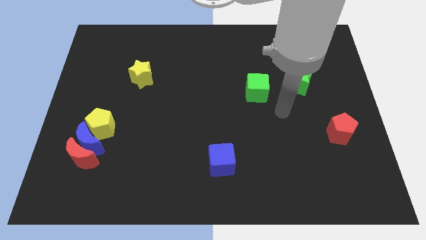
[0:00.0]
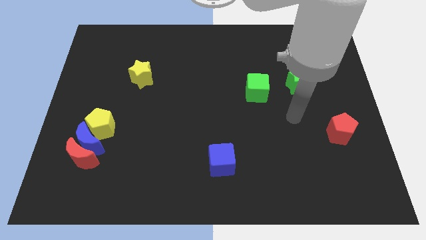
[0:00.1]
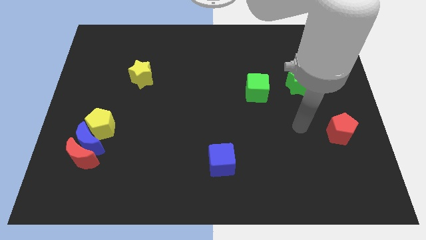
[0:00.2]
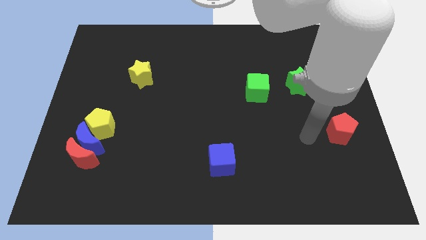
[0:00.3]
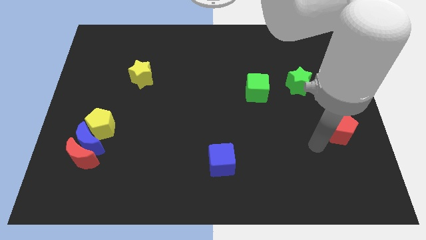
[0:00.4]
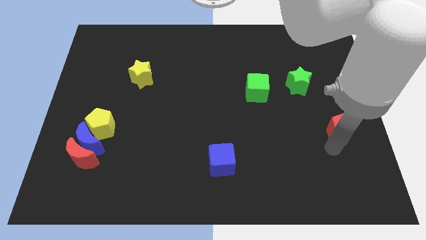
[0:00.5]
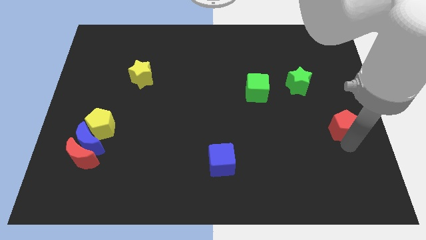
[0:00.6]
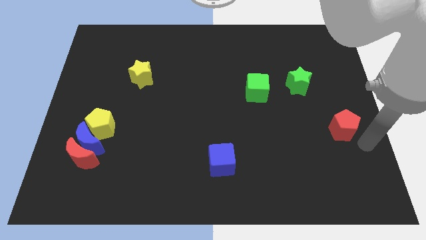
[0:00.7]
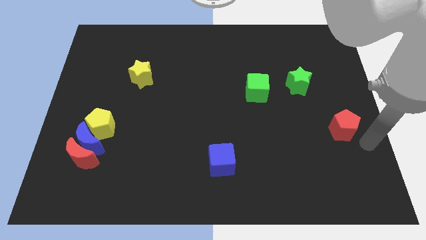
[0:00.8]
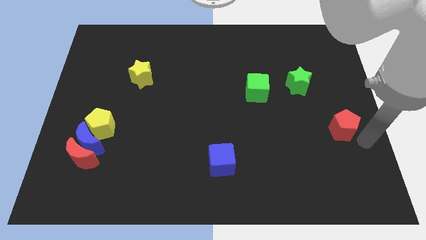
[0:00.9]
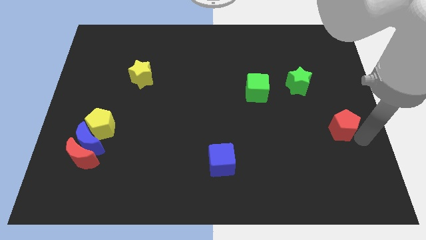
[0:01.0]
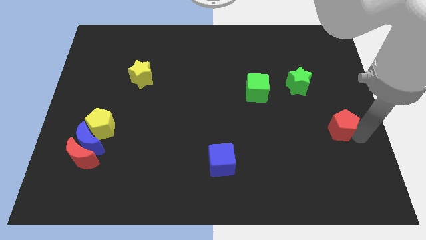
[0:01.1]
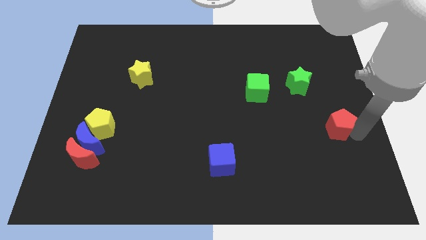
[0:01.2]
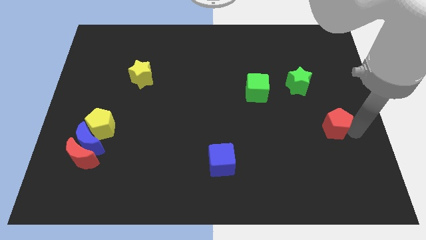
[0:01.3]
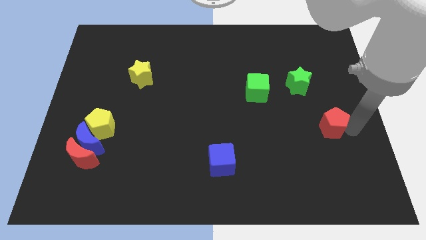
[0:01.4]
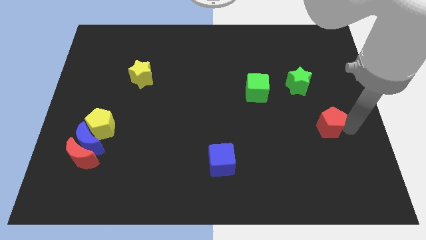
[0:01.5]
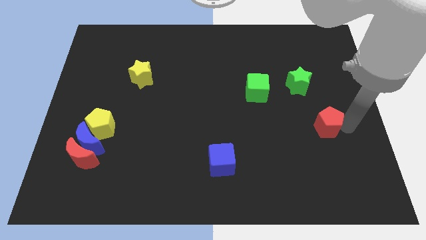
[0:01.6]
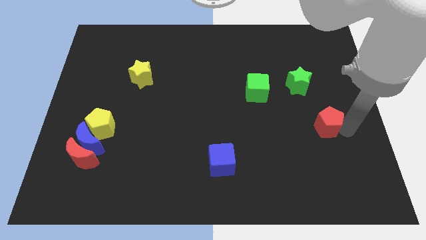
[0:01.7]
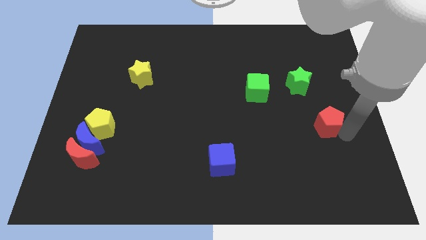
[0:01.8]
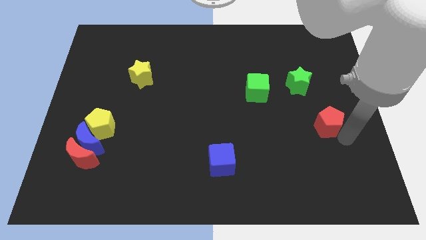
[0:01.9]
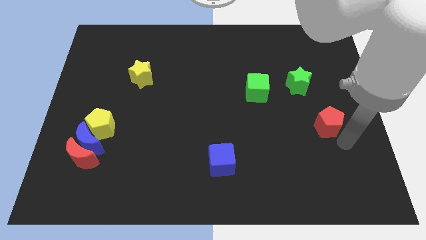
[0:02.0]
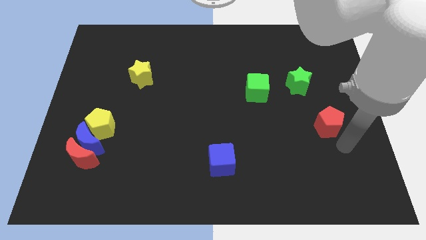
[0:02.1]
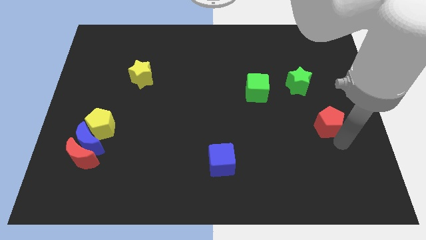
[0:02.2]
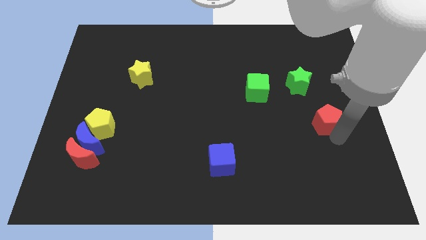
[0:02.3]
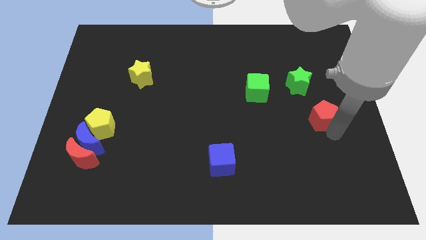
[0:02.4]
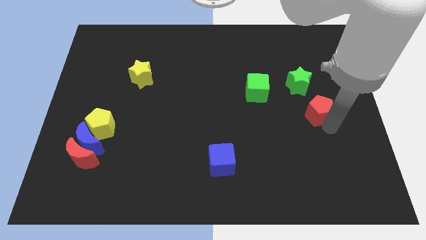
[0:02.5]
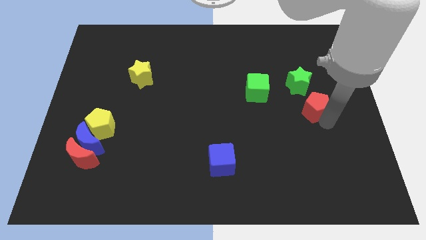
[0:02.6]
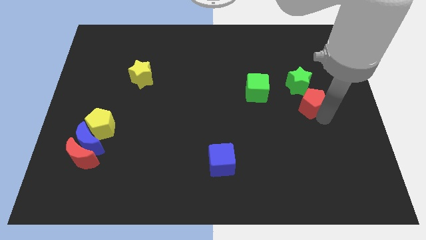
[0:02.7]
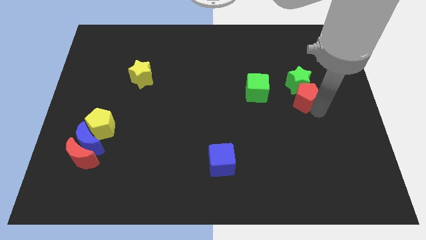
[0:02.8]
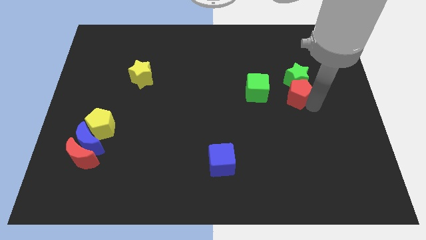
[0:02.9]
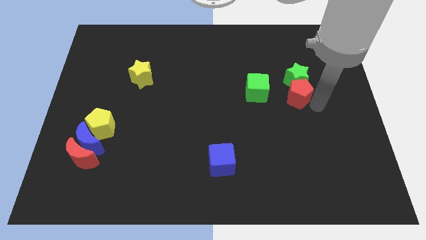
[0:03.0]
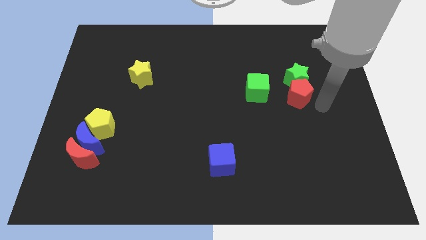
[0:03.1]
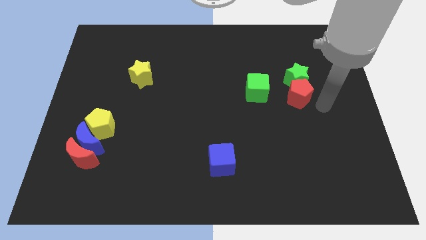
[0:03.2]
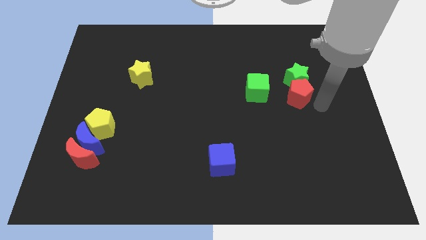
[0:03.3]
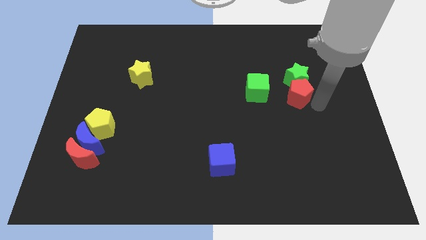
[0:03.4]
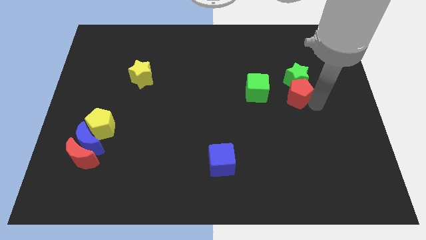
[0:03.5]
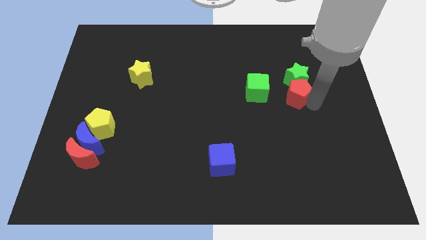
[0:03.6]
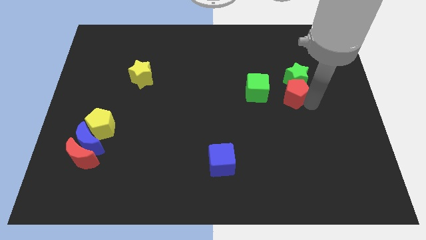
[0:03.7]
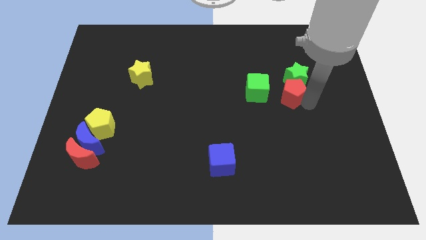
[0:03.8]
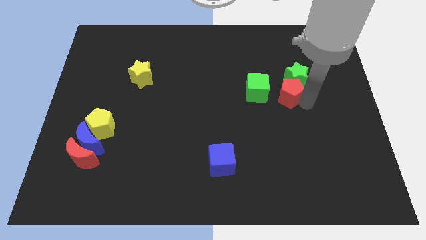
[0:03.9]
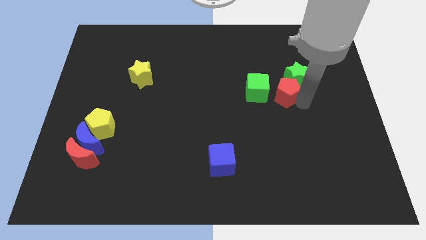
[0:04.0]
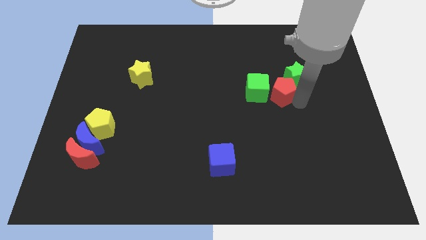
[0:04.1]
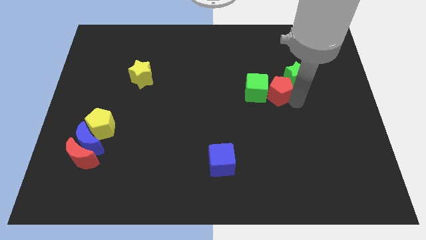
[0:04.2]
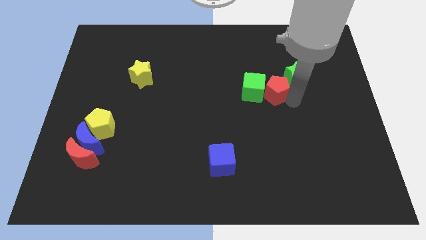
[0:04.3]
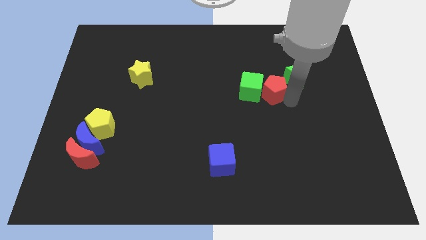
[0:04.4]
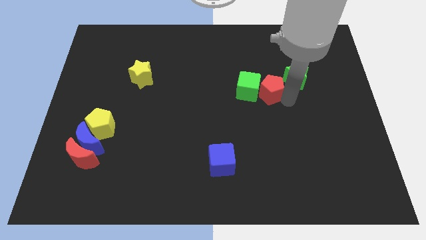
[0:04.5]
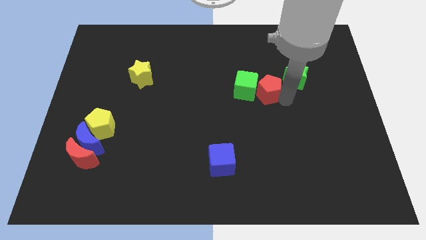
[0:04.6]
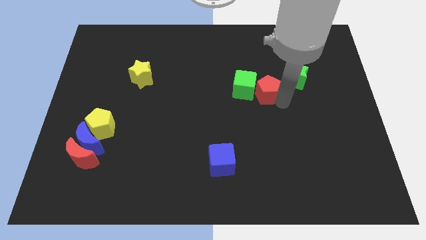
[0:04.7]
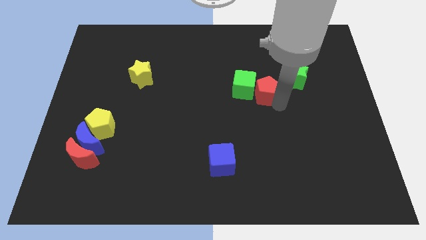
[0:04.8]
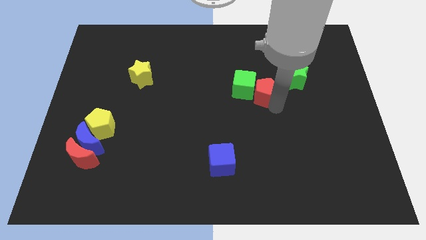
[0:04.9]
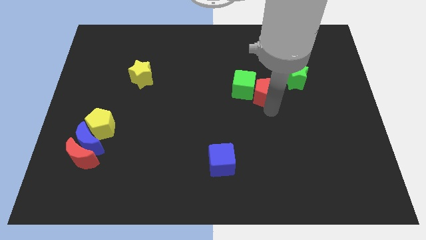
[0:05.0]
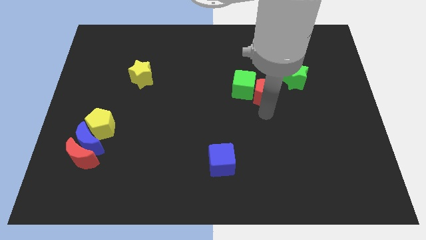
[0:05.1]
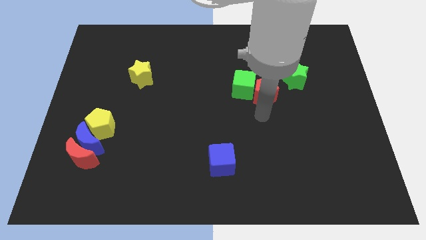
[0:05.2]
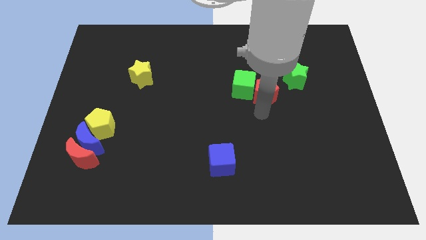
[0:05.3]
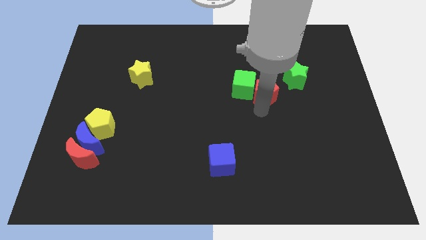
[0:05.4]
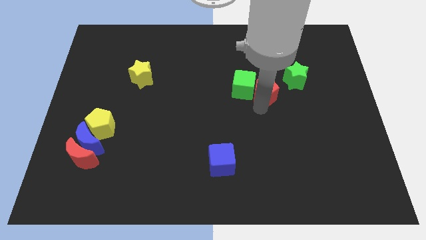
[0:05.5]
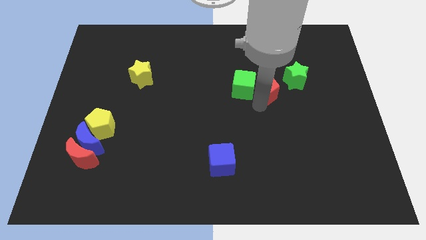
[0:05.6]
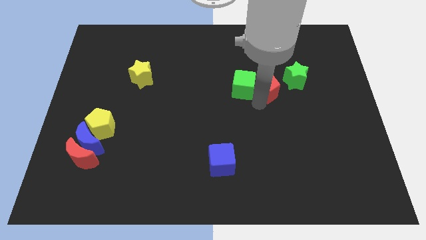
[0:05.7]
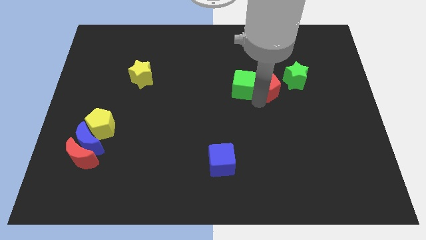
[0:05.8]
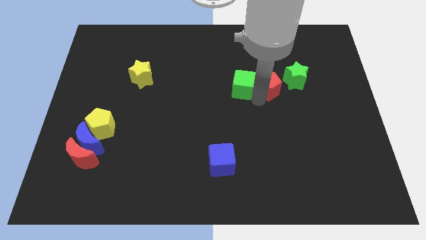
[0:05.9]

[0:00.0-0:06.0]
push the red pentagon up and then left

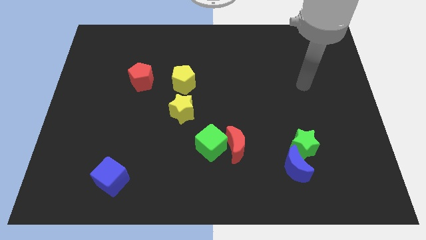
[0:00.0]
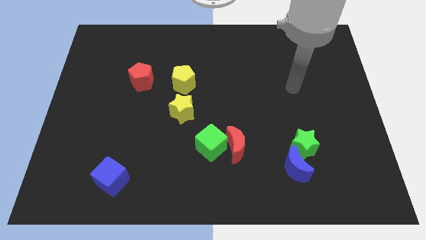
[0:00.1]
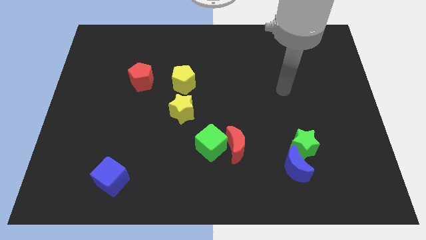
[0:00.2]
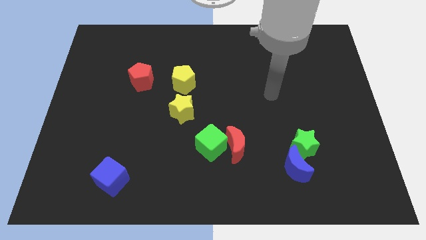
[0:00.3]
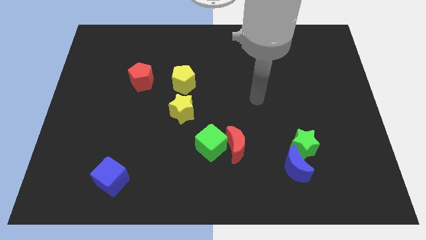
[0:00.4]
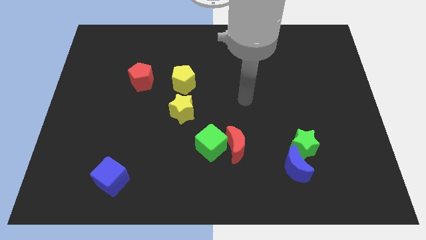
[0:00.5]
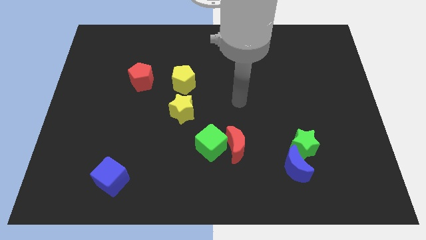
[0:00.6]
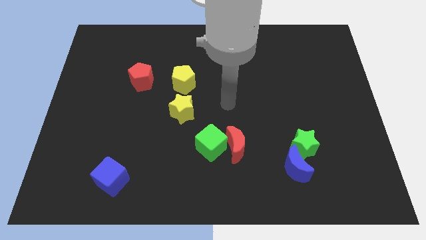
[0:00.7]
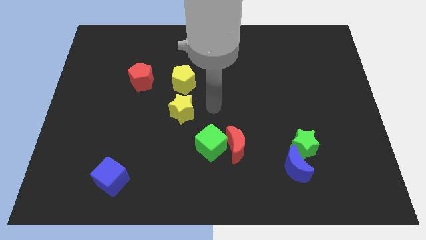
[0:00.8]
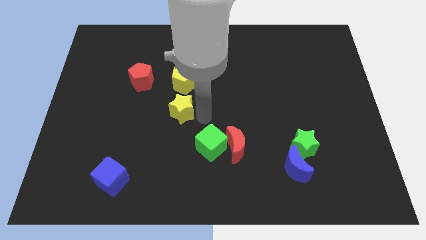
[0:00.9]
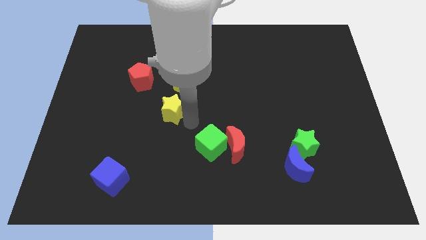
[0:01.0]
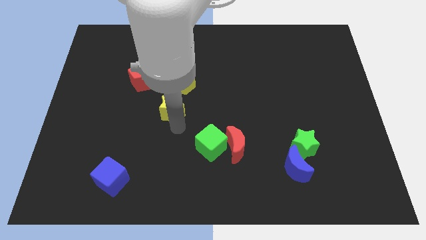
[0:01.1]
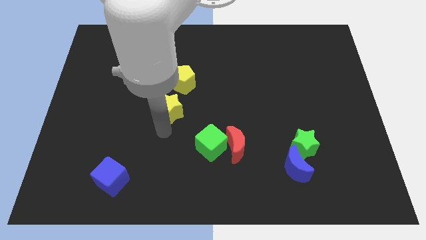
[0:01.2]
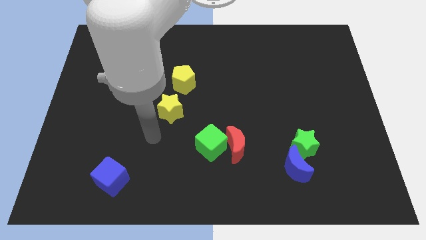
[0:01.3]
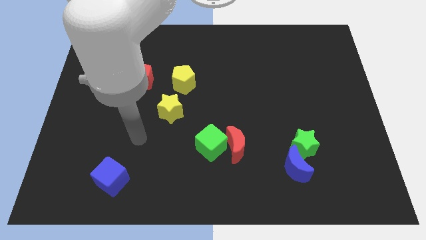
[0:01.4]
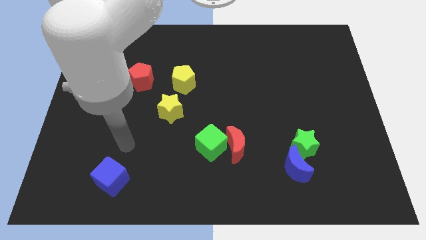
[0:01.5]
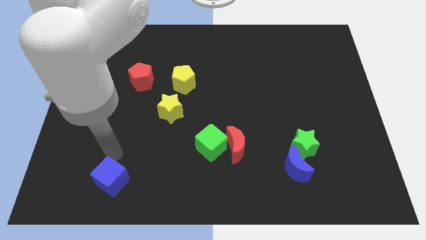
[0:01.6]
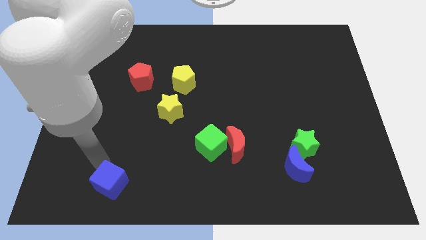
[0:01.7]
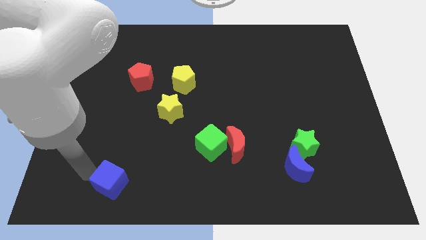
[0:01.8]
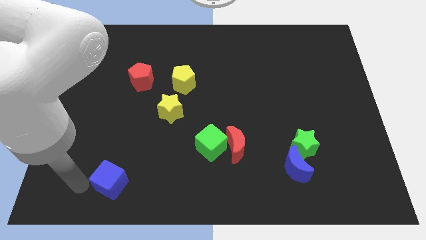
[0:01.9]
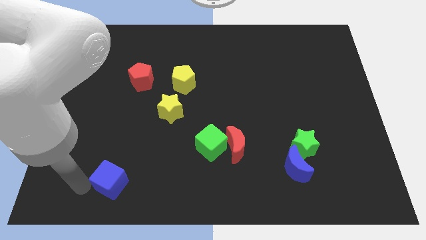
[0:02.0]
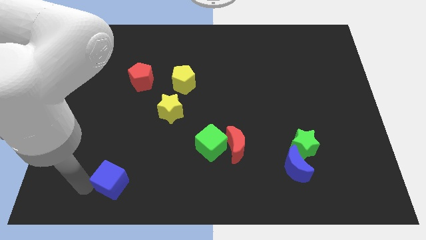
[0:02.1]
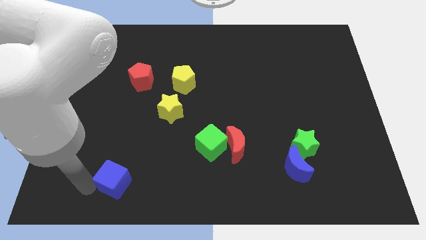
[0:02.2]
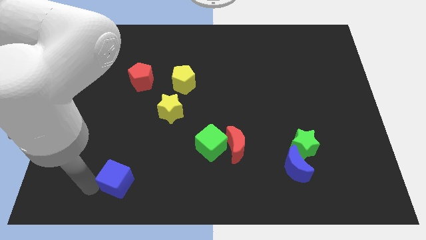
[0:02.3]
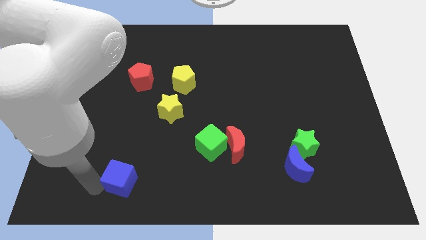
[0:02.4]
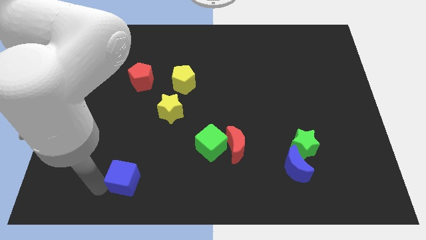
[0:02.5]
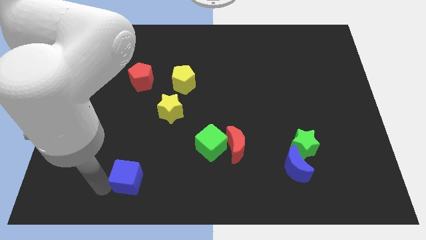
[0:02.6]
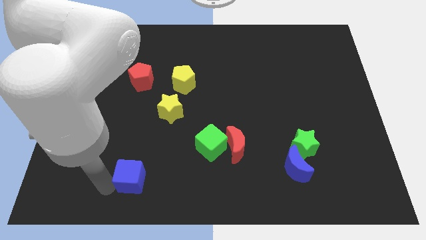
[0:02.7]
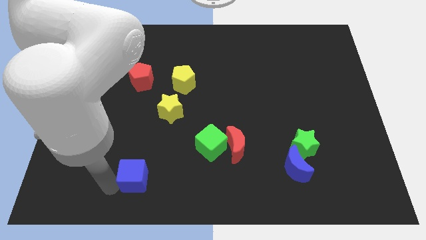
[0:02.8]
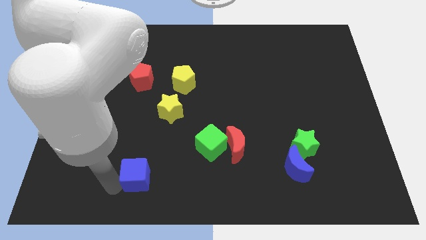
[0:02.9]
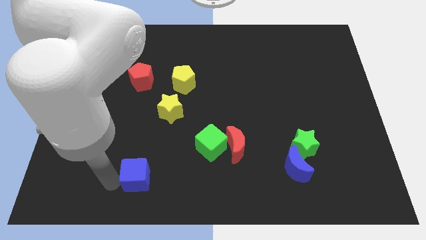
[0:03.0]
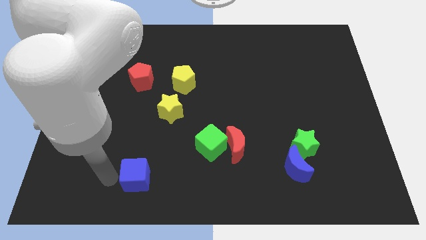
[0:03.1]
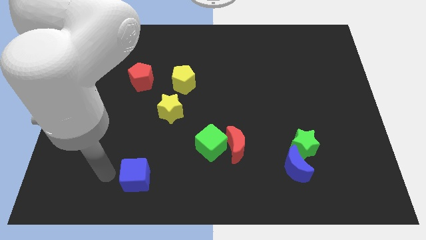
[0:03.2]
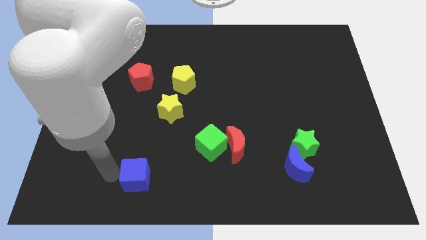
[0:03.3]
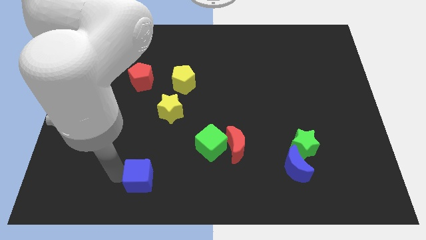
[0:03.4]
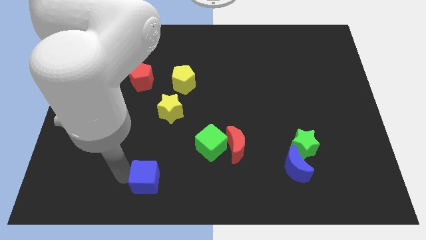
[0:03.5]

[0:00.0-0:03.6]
move the blue cube somewhat right
